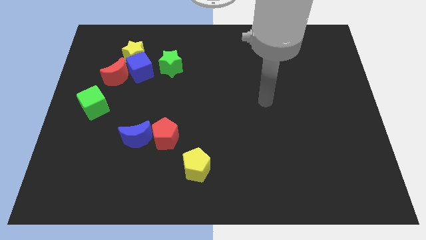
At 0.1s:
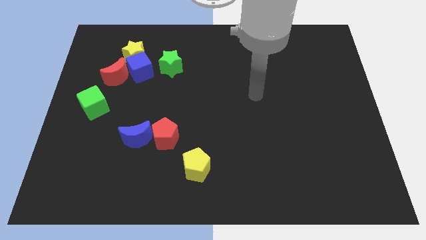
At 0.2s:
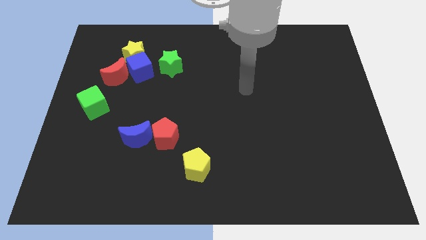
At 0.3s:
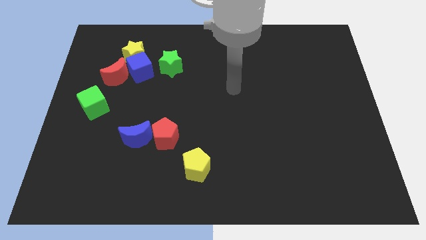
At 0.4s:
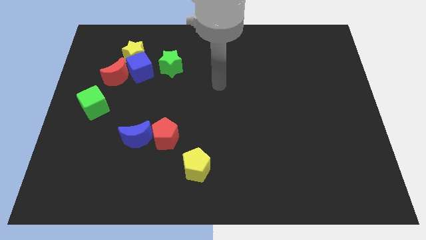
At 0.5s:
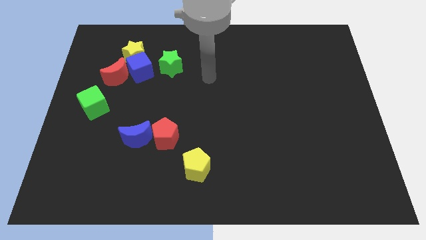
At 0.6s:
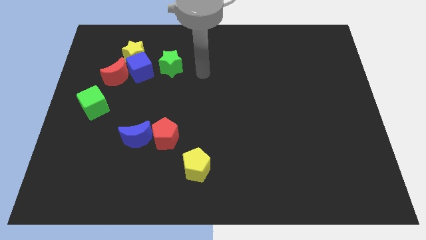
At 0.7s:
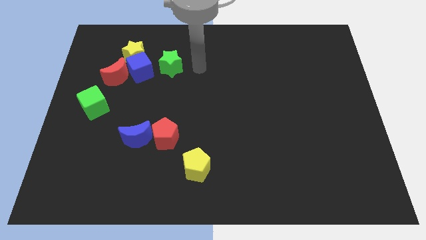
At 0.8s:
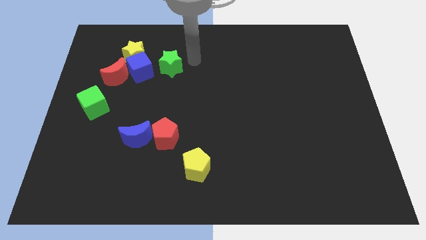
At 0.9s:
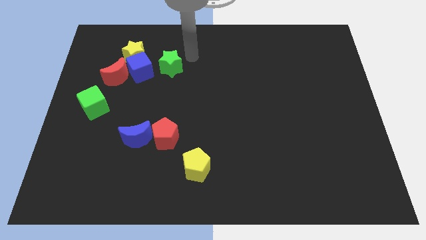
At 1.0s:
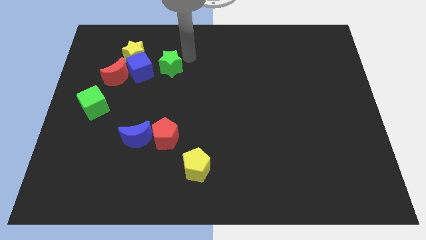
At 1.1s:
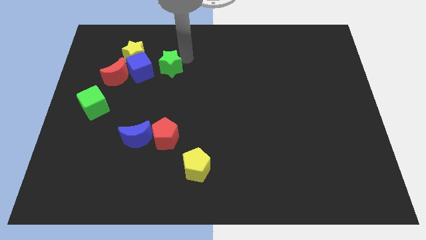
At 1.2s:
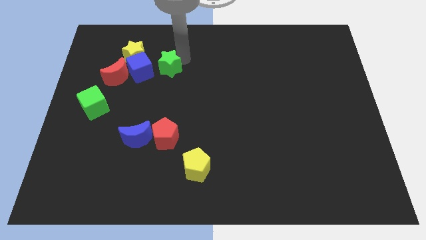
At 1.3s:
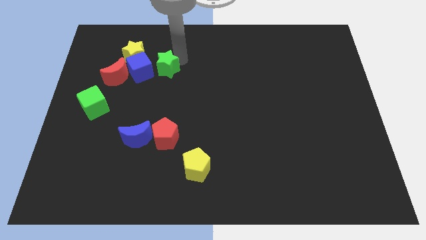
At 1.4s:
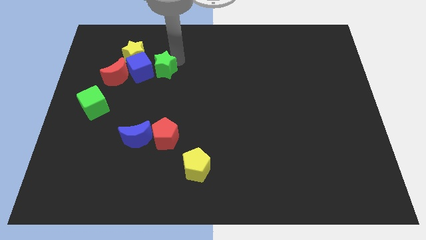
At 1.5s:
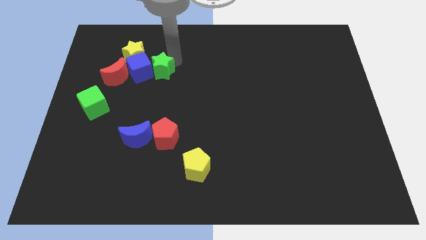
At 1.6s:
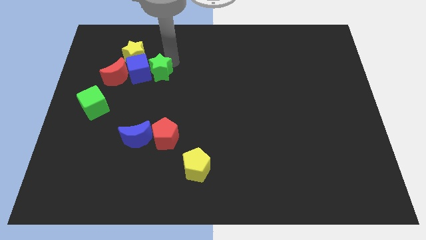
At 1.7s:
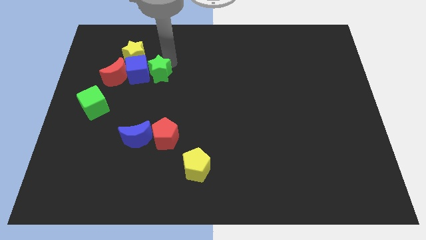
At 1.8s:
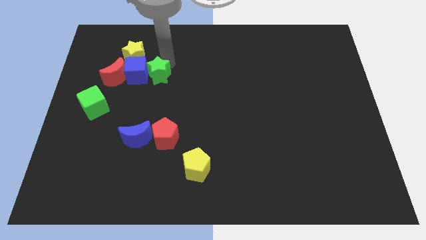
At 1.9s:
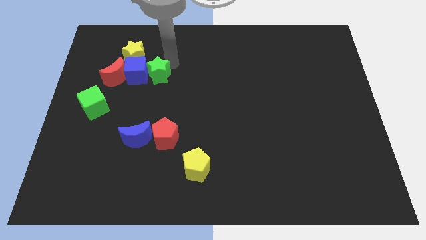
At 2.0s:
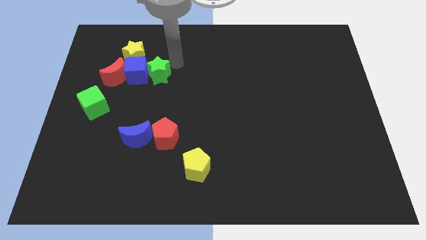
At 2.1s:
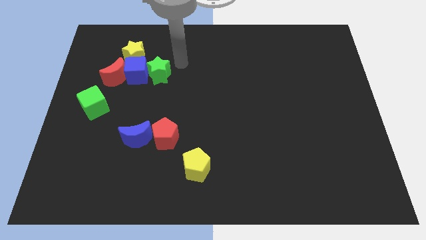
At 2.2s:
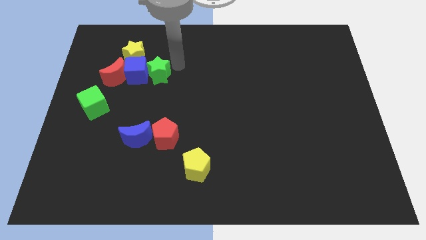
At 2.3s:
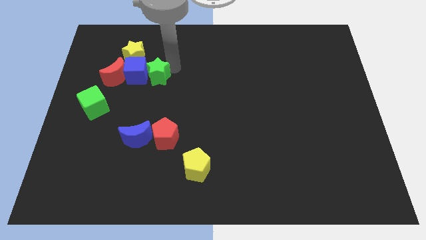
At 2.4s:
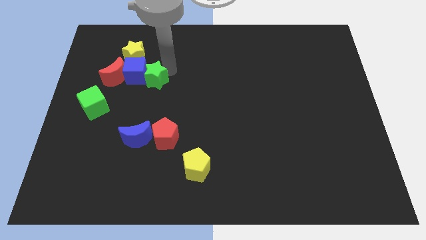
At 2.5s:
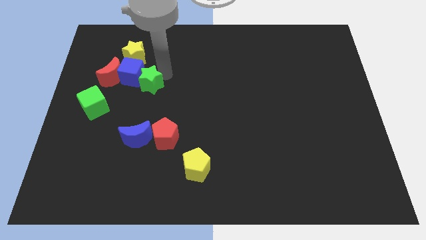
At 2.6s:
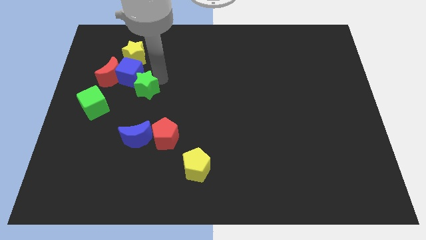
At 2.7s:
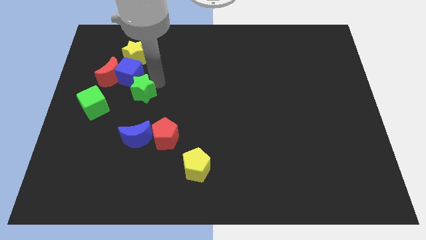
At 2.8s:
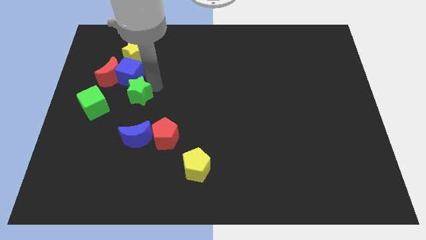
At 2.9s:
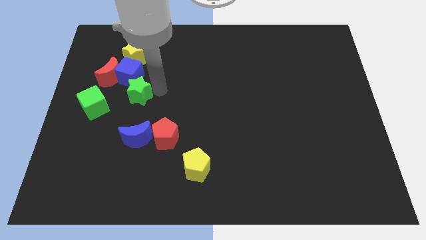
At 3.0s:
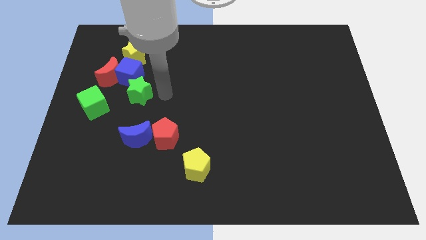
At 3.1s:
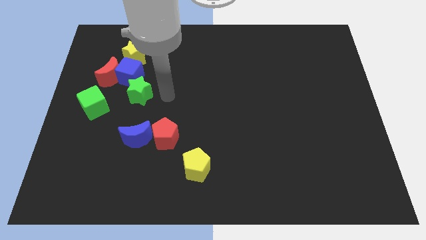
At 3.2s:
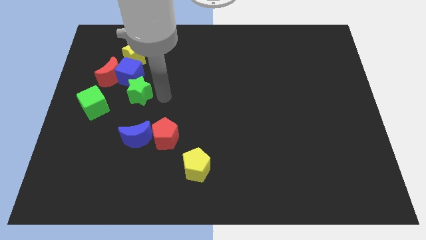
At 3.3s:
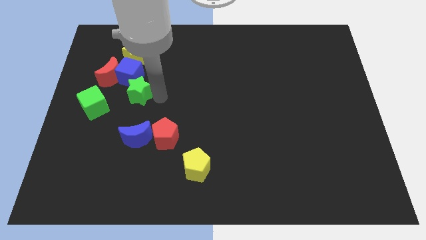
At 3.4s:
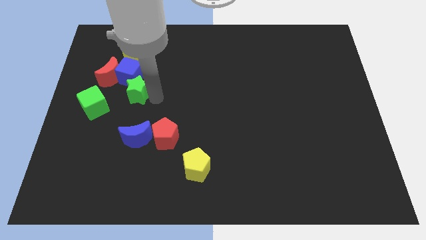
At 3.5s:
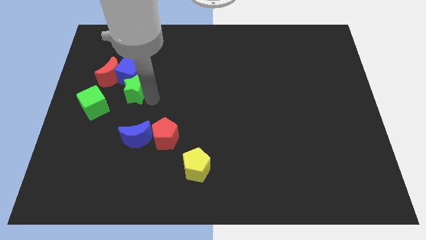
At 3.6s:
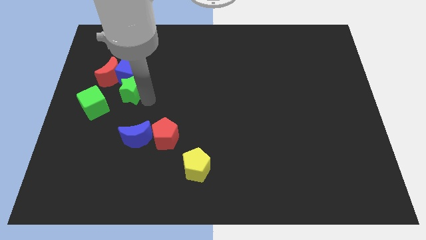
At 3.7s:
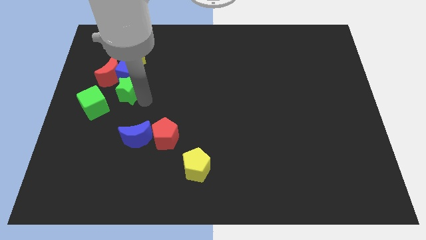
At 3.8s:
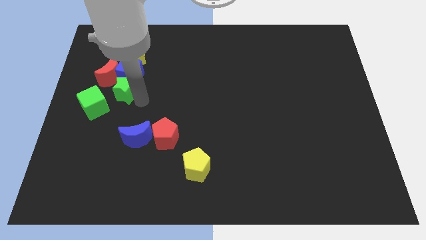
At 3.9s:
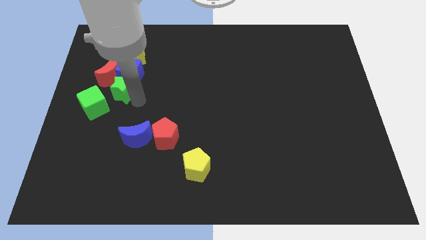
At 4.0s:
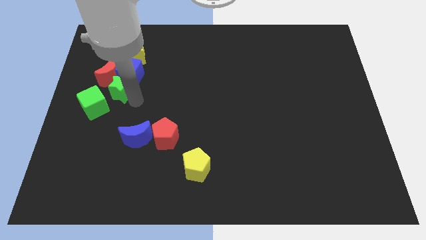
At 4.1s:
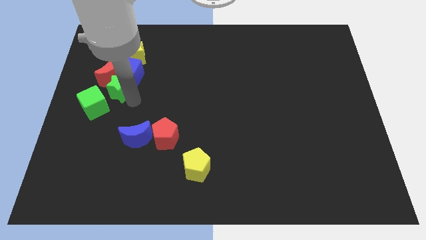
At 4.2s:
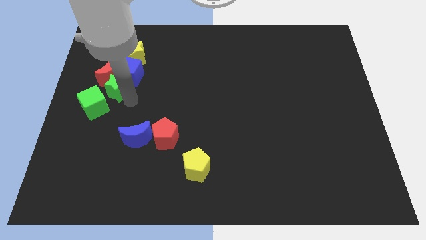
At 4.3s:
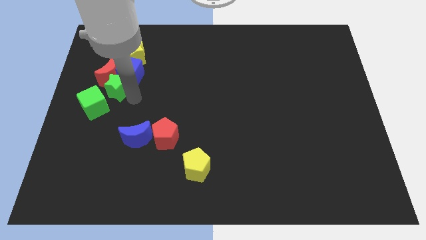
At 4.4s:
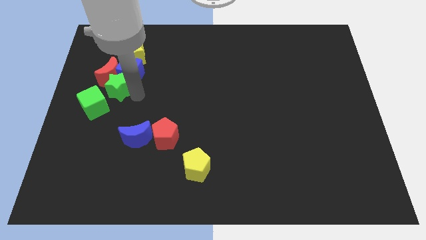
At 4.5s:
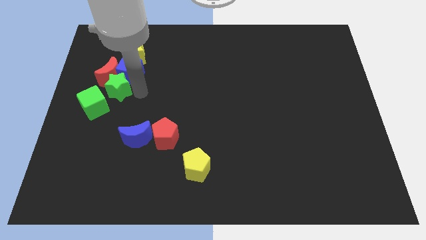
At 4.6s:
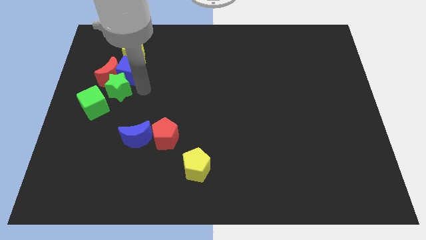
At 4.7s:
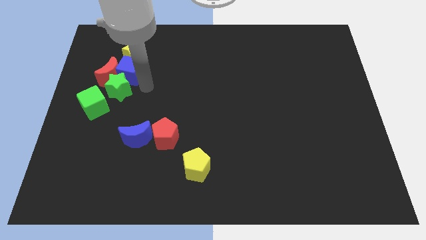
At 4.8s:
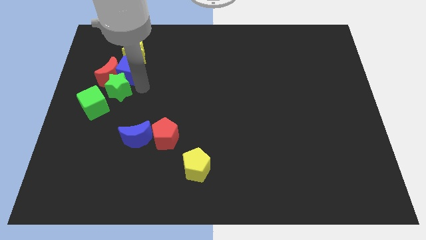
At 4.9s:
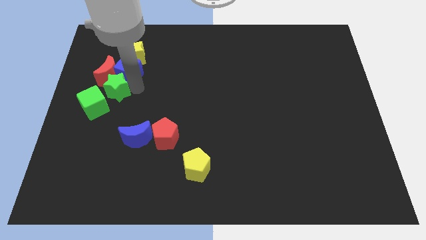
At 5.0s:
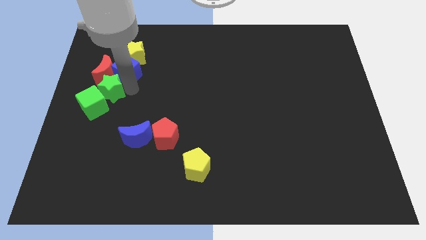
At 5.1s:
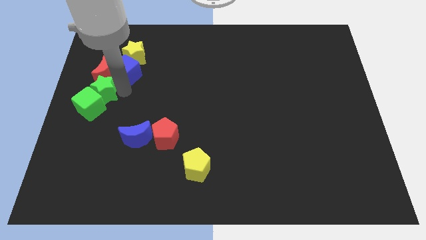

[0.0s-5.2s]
put the green star to the center left

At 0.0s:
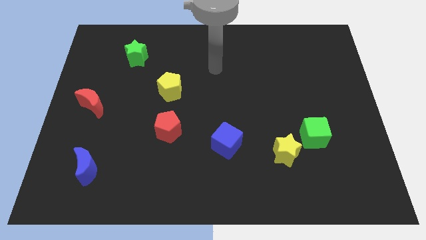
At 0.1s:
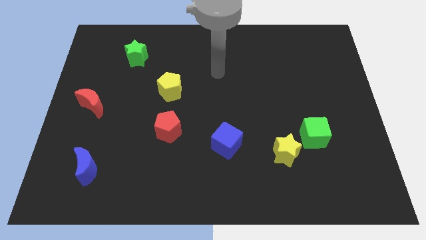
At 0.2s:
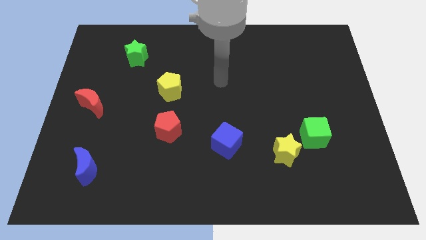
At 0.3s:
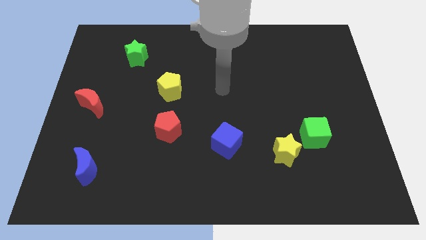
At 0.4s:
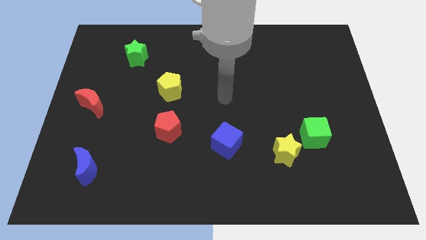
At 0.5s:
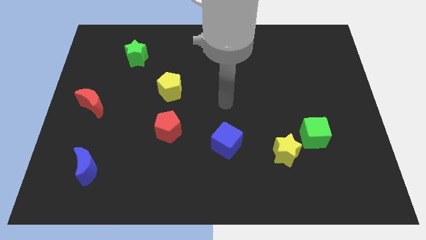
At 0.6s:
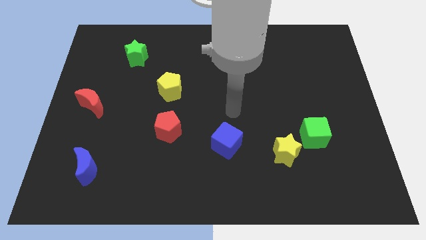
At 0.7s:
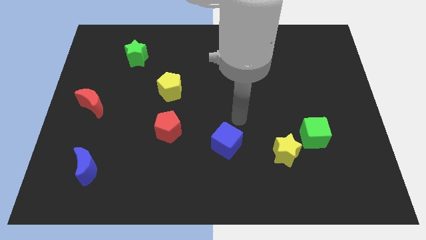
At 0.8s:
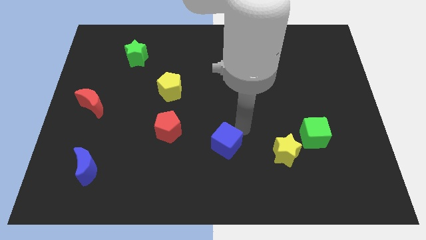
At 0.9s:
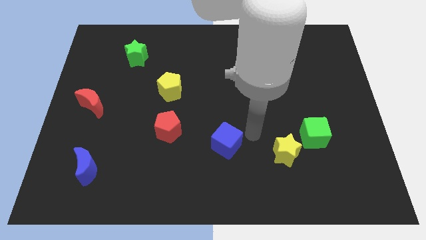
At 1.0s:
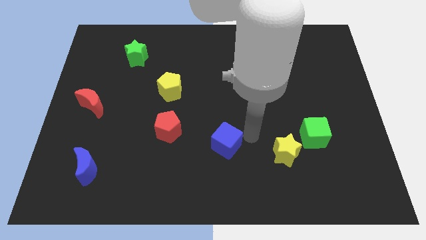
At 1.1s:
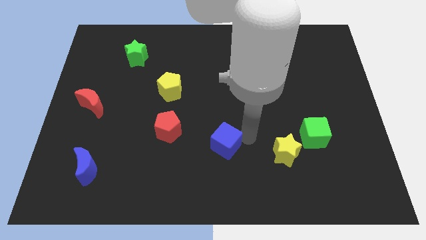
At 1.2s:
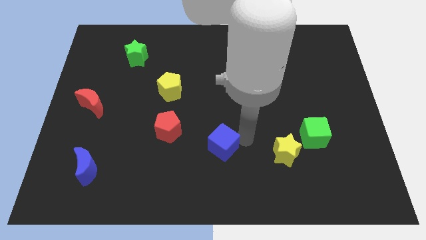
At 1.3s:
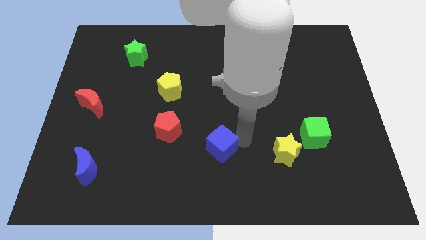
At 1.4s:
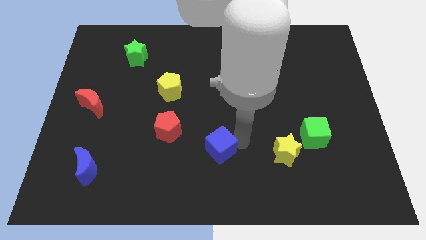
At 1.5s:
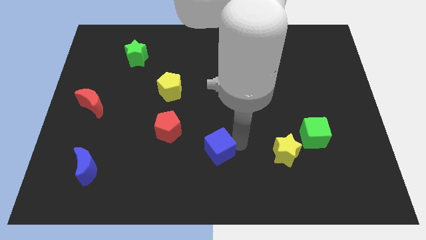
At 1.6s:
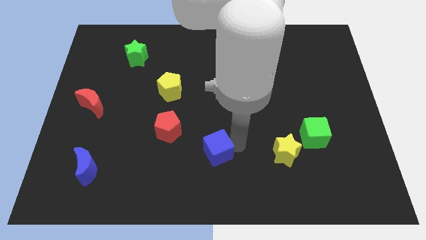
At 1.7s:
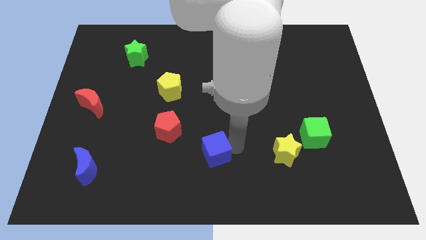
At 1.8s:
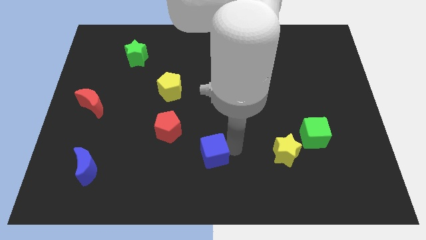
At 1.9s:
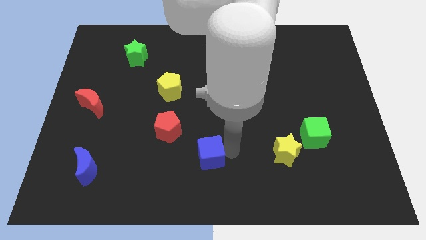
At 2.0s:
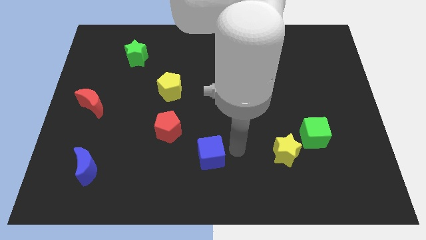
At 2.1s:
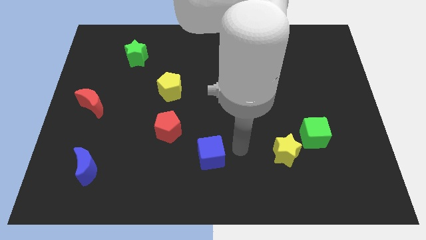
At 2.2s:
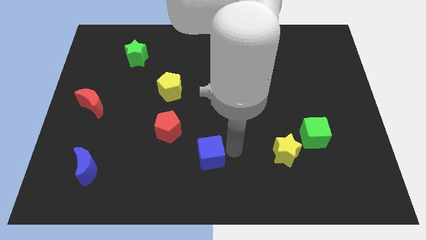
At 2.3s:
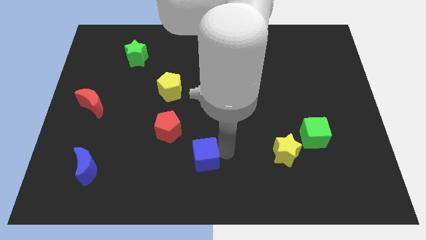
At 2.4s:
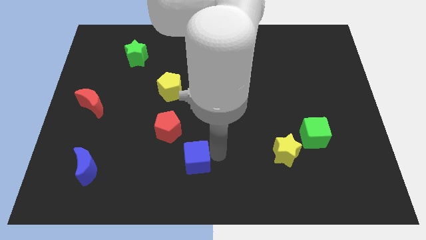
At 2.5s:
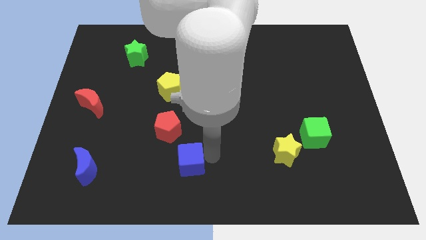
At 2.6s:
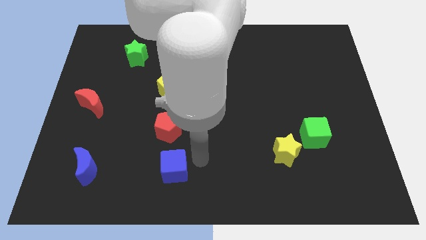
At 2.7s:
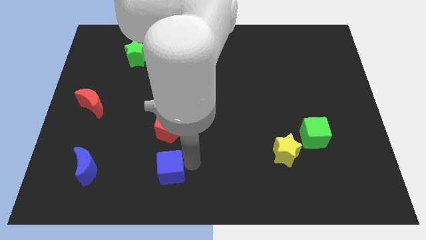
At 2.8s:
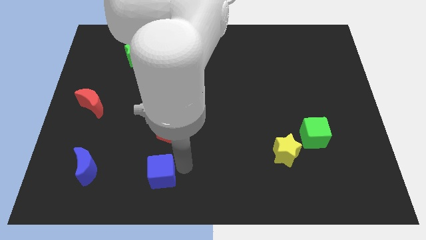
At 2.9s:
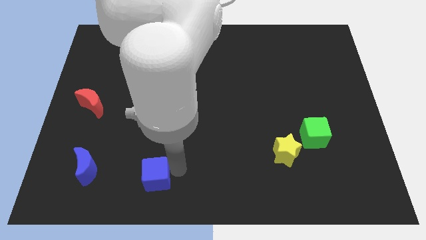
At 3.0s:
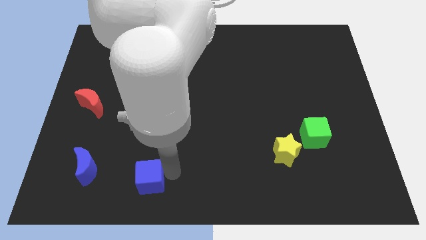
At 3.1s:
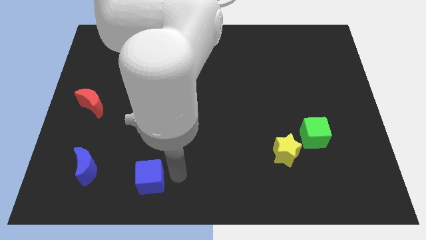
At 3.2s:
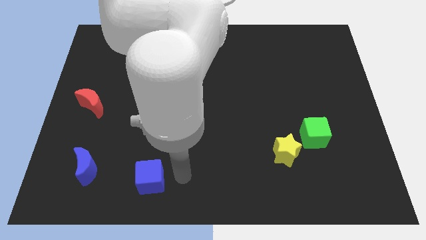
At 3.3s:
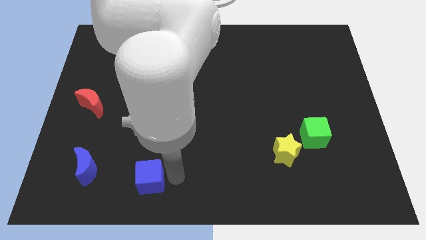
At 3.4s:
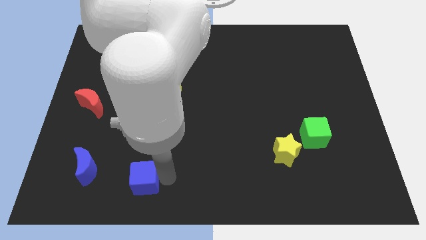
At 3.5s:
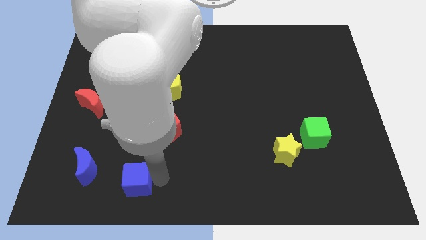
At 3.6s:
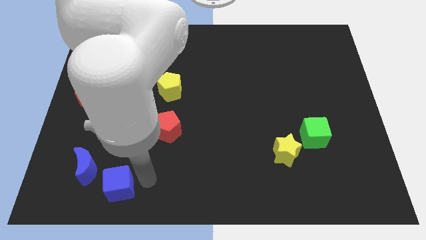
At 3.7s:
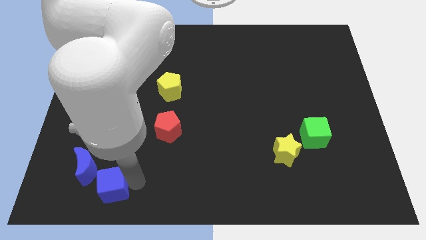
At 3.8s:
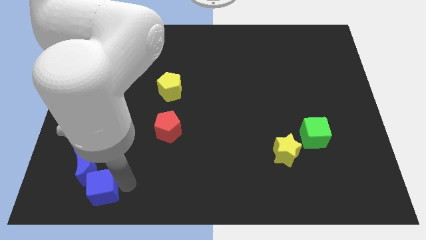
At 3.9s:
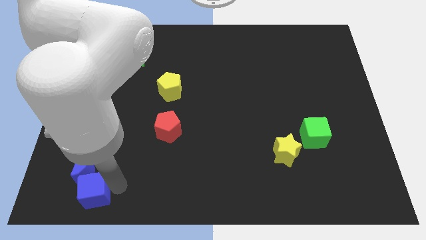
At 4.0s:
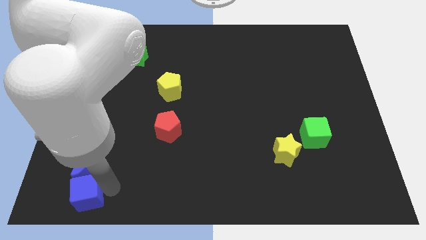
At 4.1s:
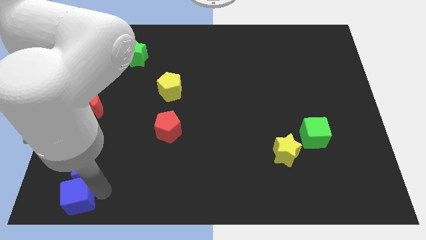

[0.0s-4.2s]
push the blue cube to the lower left corner
